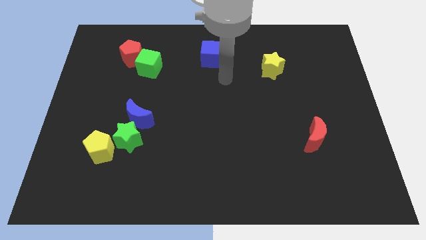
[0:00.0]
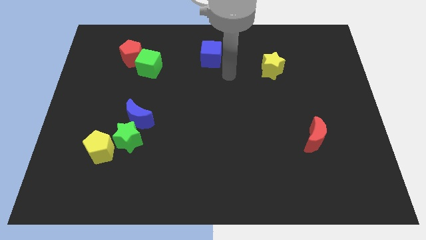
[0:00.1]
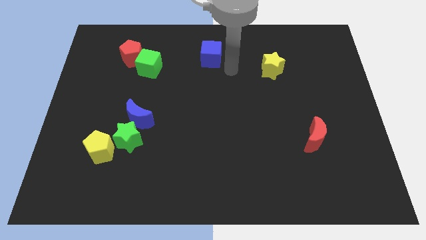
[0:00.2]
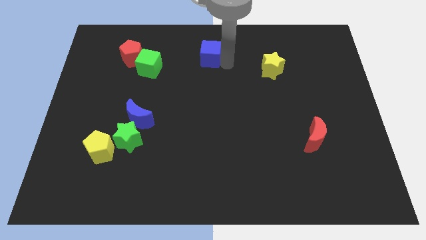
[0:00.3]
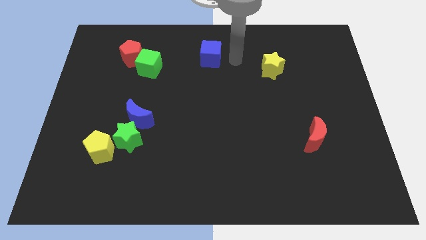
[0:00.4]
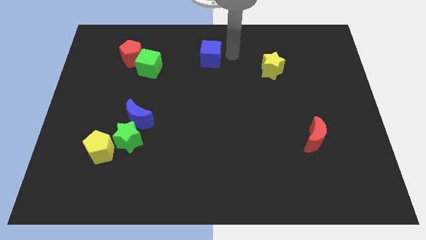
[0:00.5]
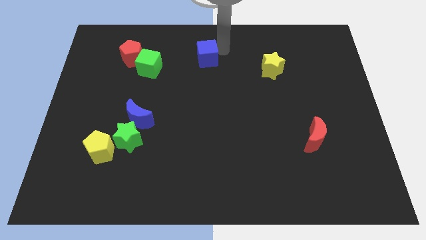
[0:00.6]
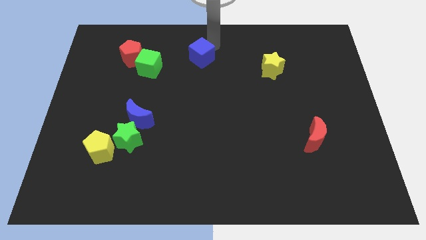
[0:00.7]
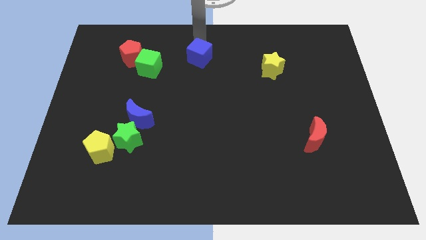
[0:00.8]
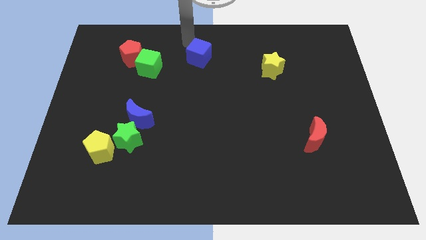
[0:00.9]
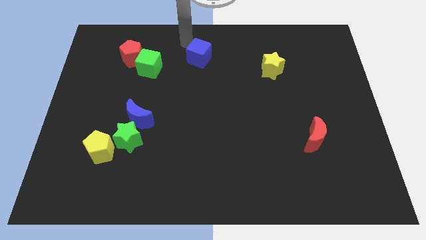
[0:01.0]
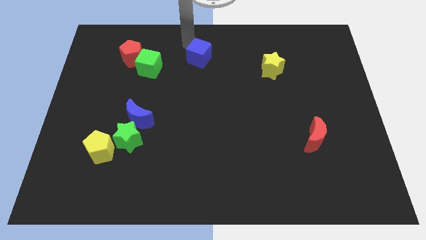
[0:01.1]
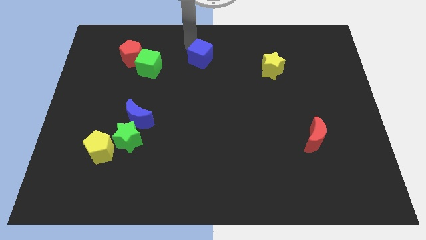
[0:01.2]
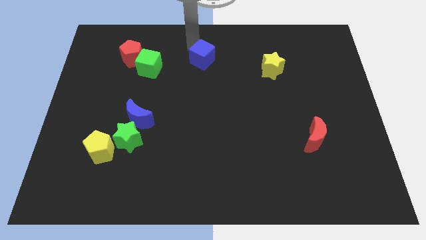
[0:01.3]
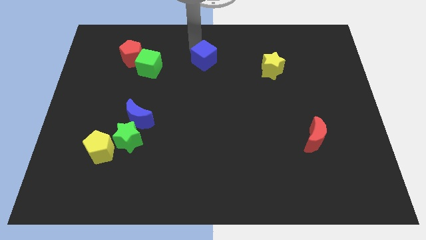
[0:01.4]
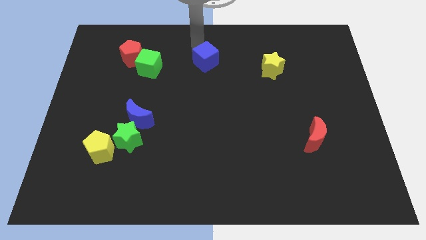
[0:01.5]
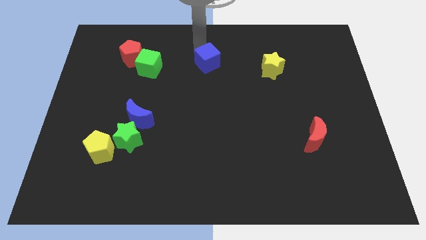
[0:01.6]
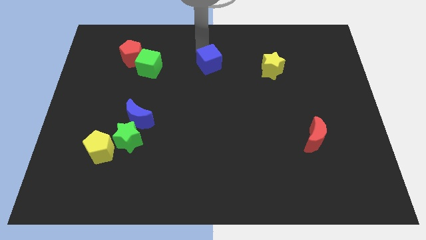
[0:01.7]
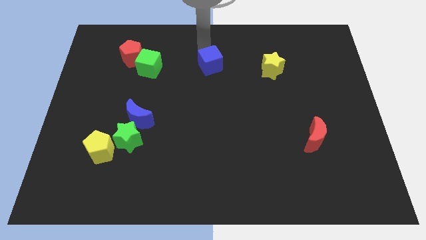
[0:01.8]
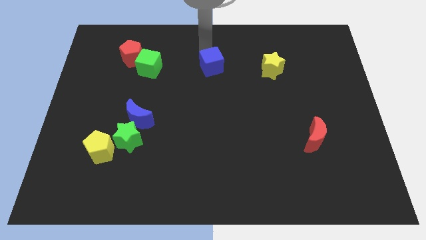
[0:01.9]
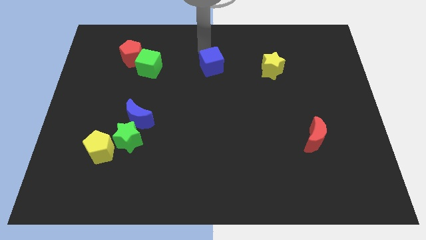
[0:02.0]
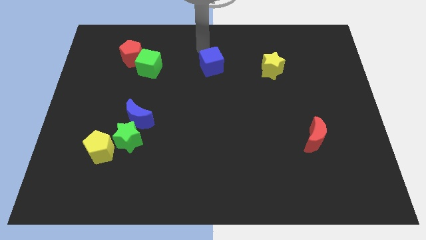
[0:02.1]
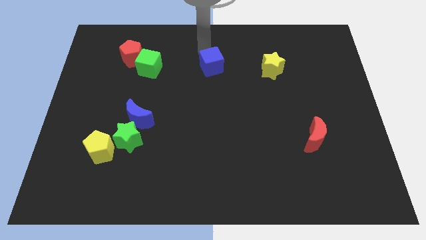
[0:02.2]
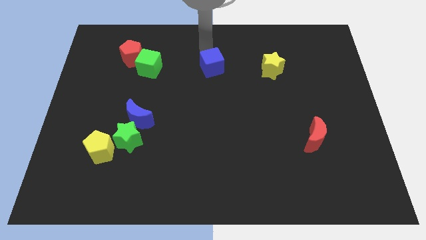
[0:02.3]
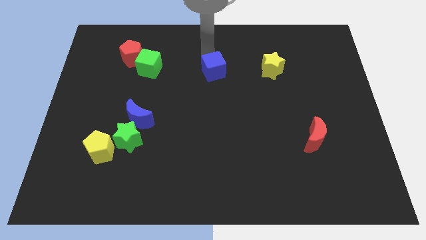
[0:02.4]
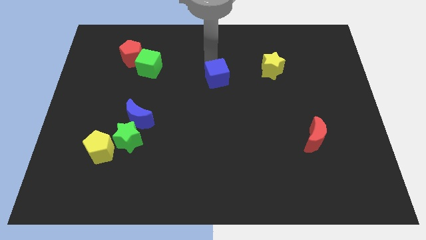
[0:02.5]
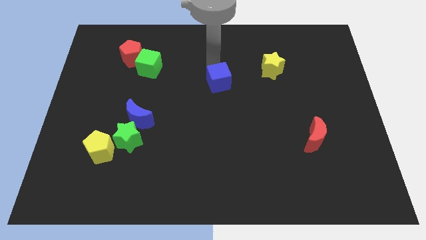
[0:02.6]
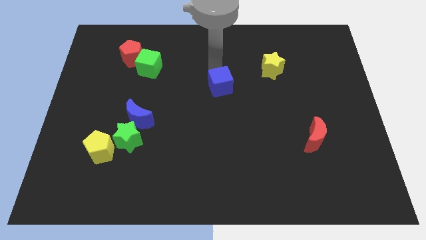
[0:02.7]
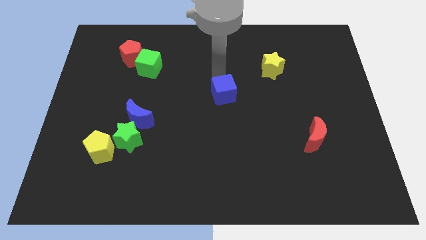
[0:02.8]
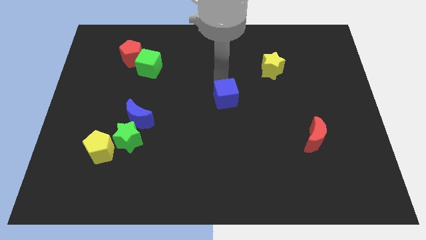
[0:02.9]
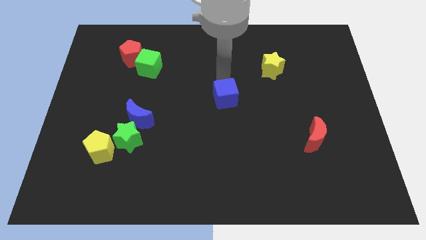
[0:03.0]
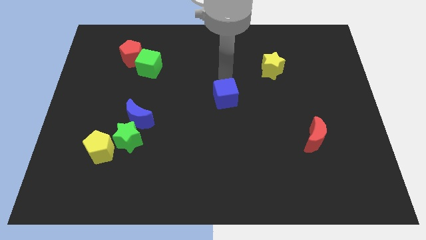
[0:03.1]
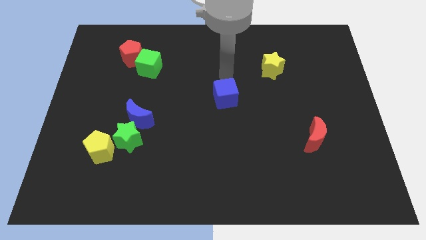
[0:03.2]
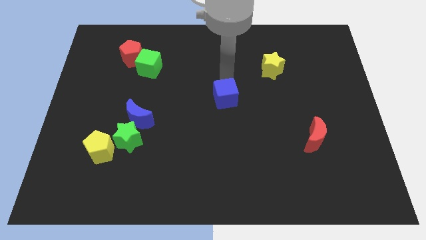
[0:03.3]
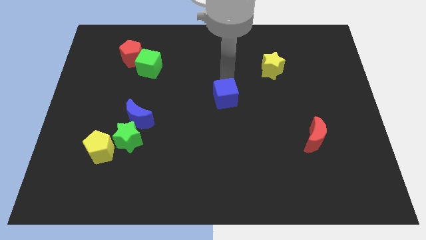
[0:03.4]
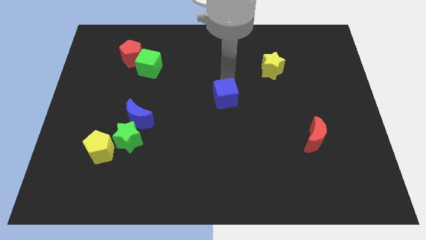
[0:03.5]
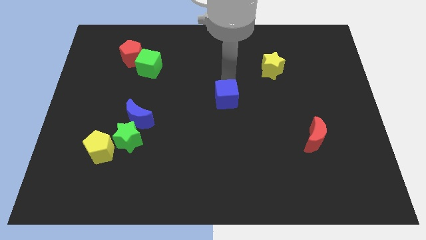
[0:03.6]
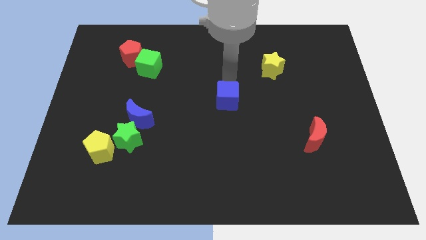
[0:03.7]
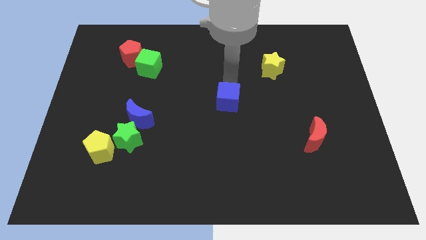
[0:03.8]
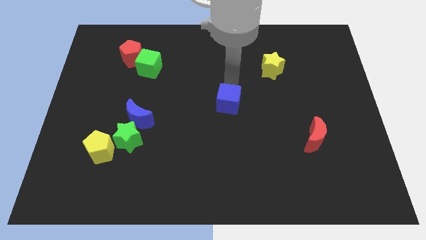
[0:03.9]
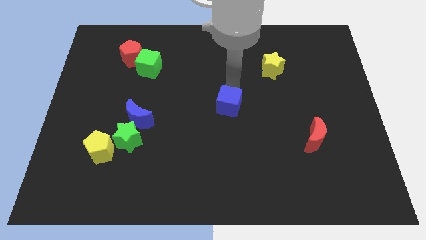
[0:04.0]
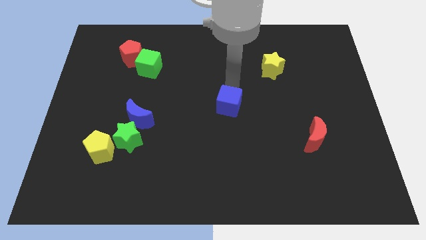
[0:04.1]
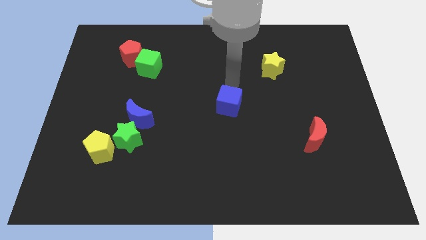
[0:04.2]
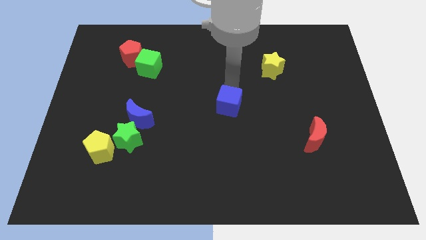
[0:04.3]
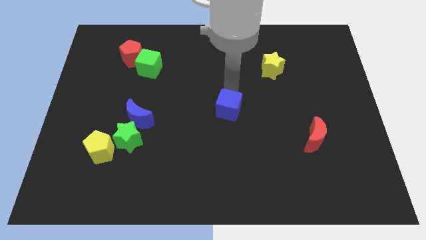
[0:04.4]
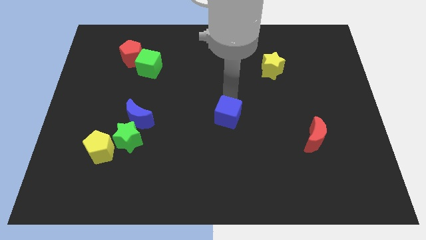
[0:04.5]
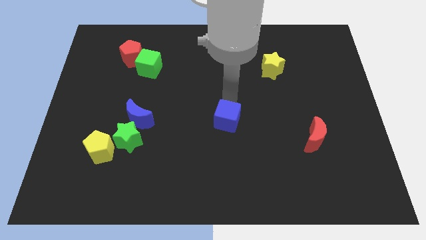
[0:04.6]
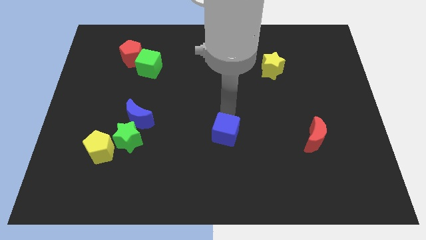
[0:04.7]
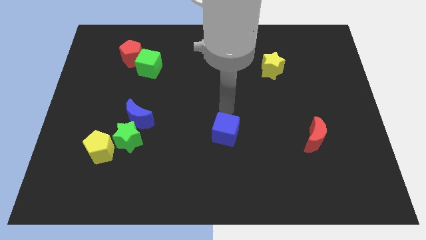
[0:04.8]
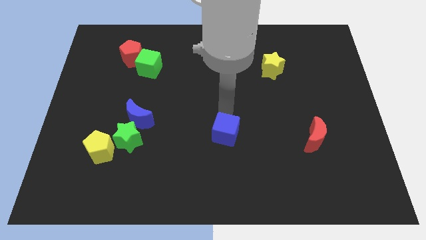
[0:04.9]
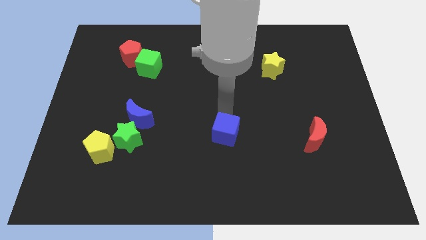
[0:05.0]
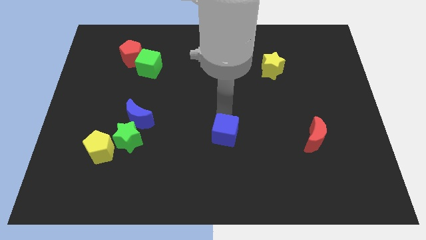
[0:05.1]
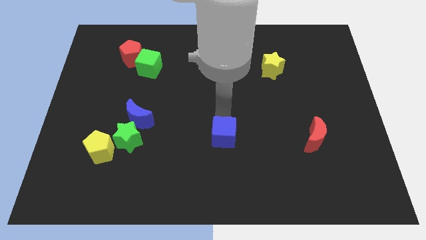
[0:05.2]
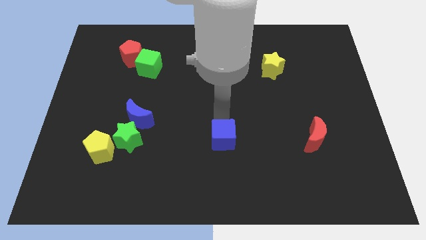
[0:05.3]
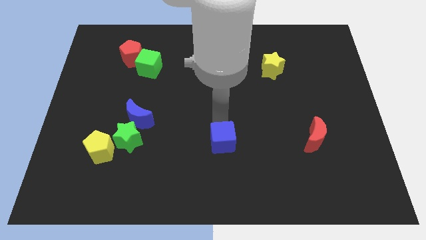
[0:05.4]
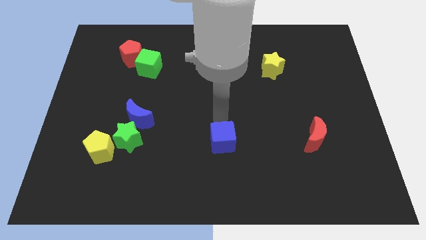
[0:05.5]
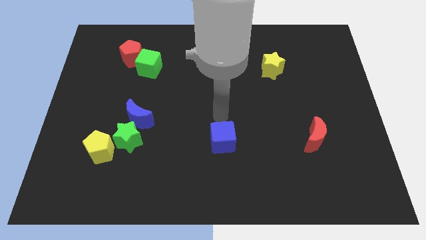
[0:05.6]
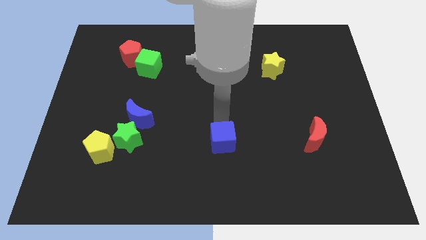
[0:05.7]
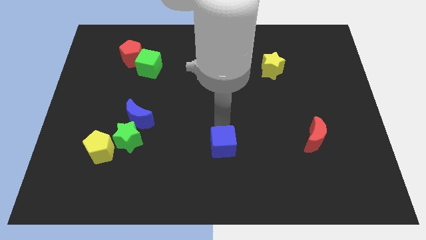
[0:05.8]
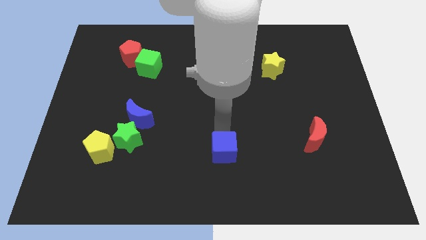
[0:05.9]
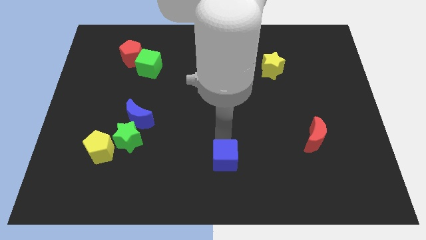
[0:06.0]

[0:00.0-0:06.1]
slide the blue cube to the bottom
